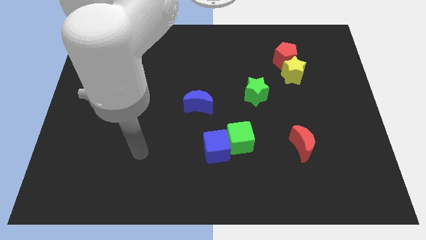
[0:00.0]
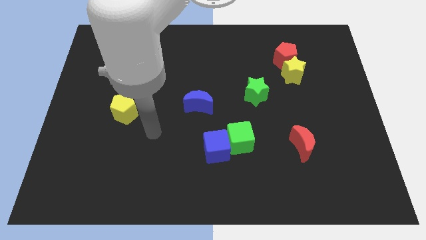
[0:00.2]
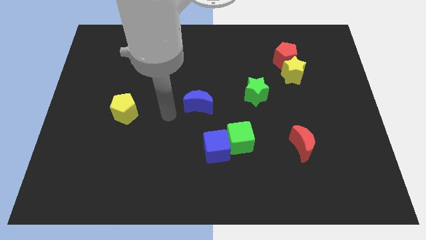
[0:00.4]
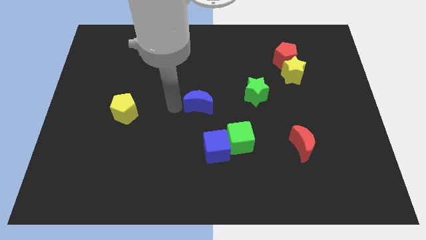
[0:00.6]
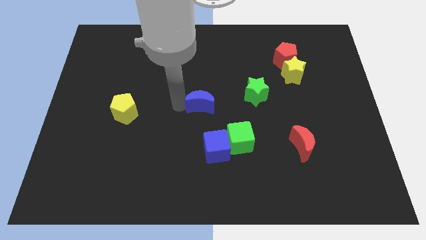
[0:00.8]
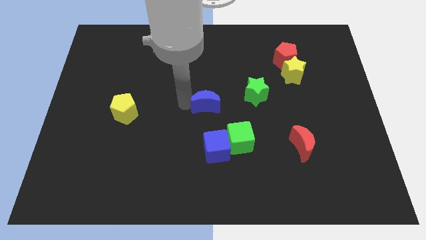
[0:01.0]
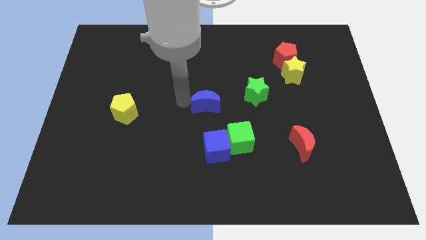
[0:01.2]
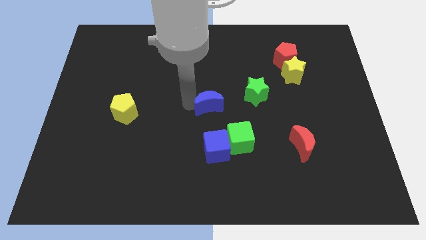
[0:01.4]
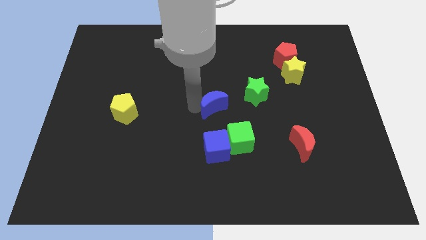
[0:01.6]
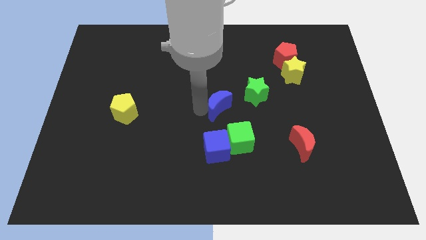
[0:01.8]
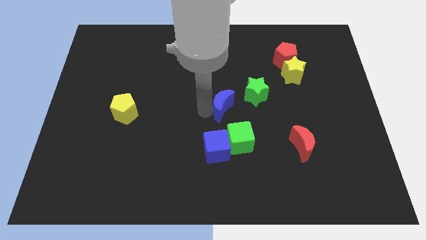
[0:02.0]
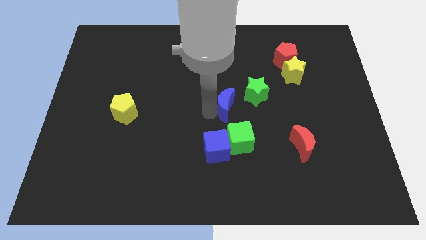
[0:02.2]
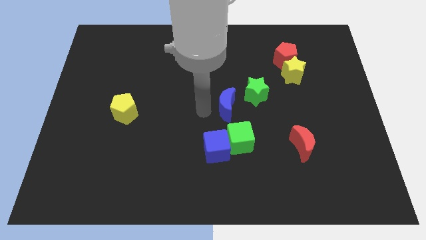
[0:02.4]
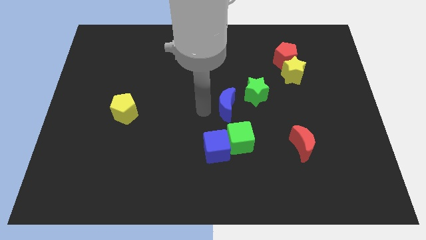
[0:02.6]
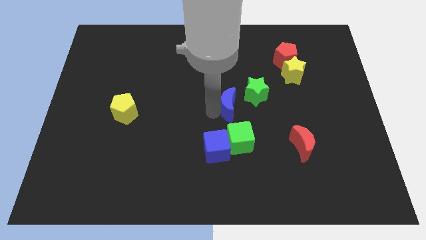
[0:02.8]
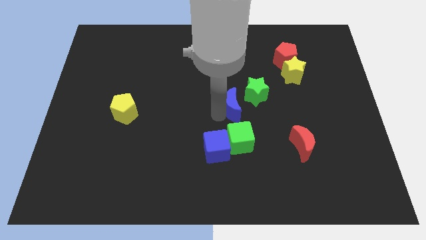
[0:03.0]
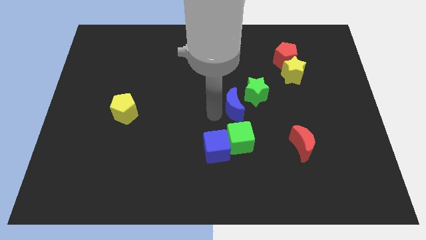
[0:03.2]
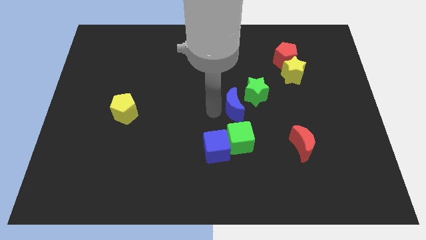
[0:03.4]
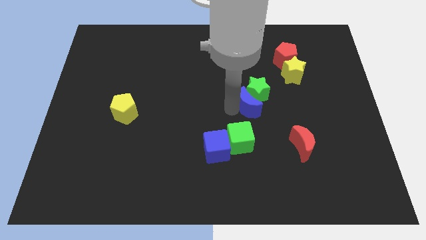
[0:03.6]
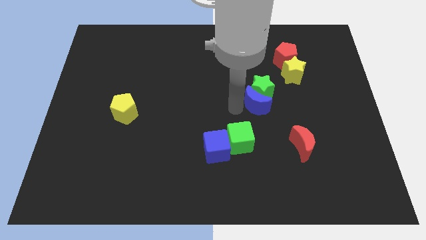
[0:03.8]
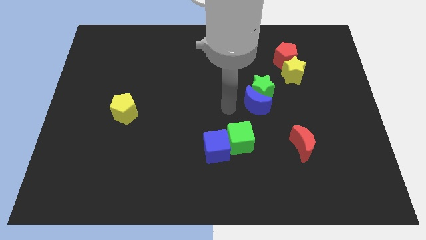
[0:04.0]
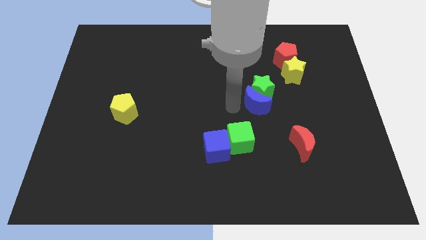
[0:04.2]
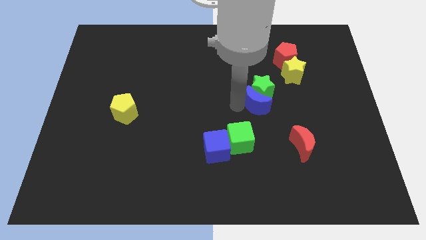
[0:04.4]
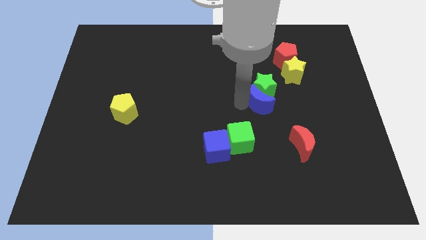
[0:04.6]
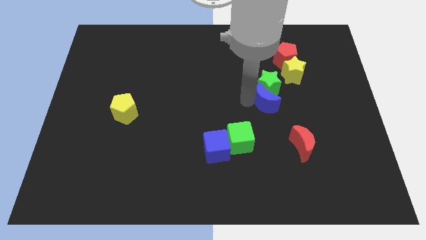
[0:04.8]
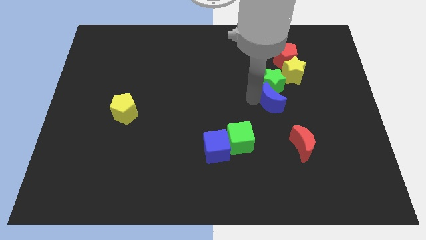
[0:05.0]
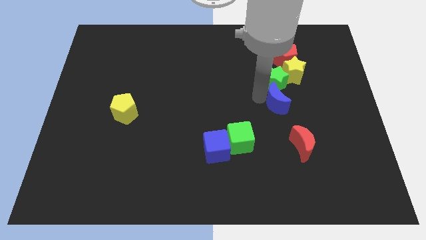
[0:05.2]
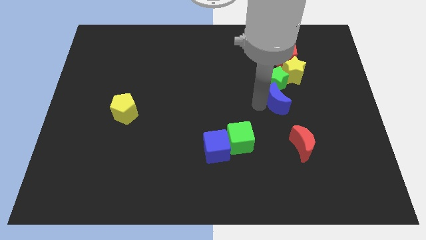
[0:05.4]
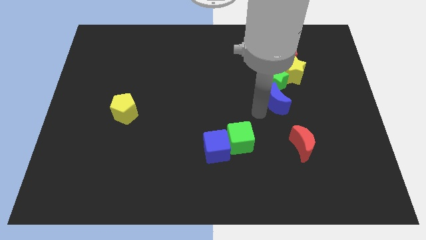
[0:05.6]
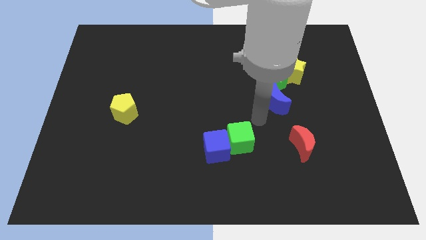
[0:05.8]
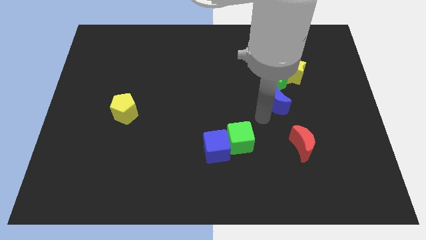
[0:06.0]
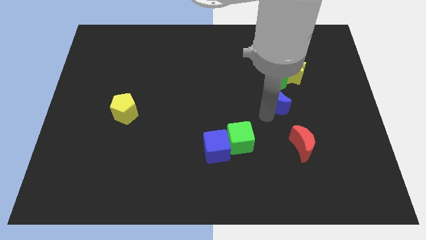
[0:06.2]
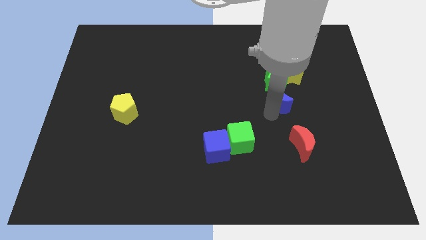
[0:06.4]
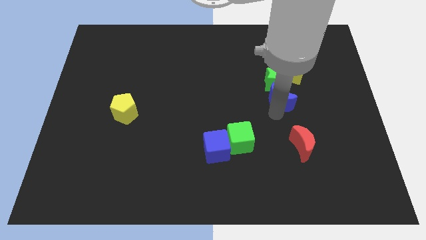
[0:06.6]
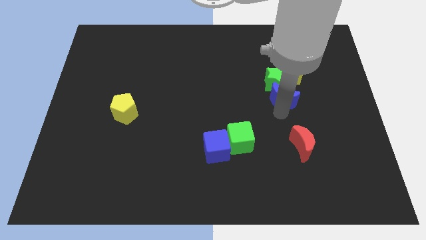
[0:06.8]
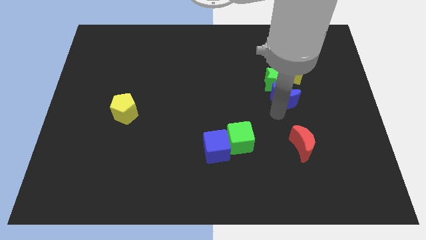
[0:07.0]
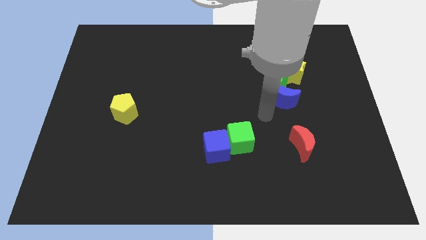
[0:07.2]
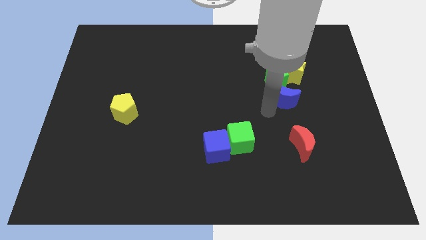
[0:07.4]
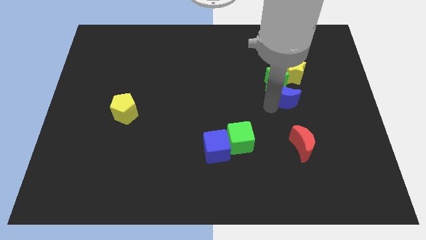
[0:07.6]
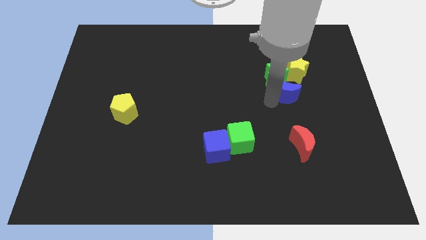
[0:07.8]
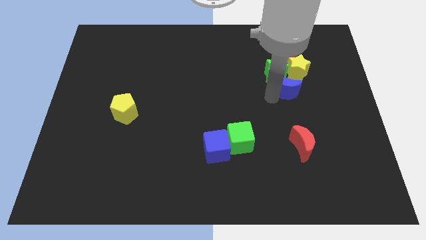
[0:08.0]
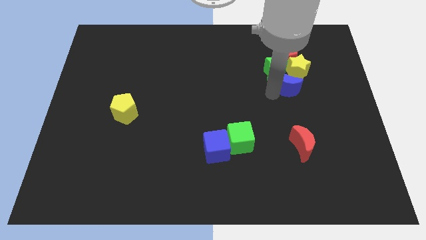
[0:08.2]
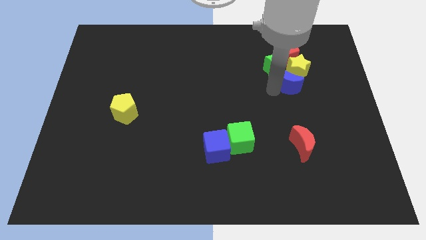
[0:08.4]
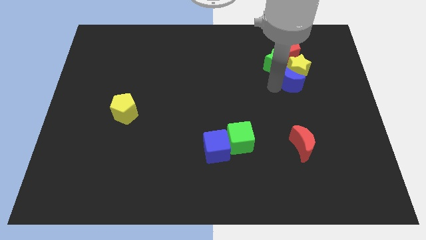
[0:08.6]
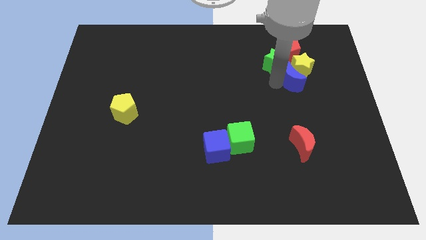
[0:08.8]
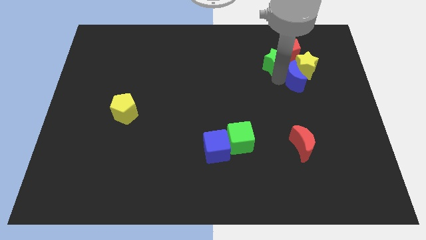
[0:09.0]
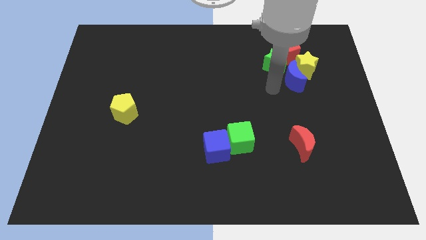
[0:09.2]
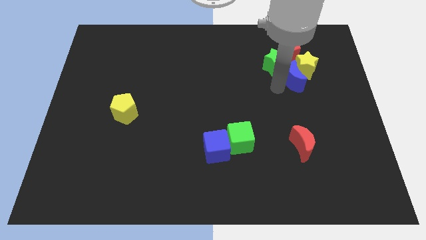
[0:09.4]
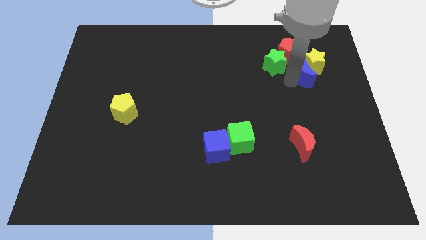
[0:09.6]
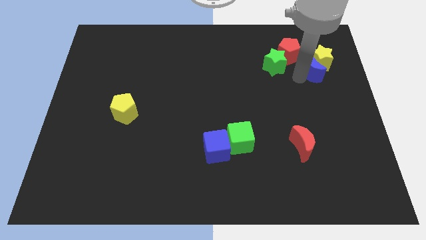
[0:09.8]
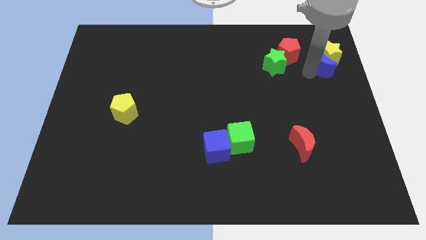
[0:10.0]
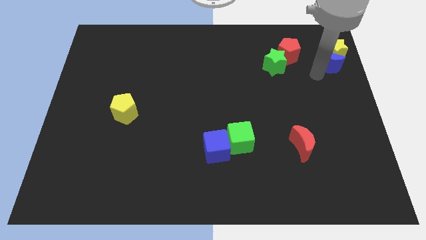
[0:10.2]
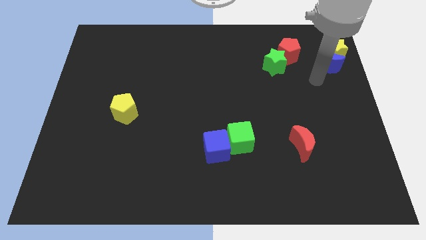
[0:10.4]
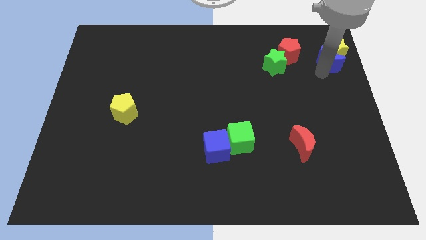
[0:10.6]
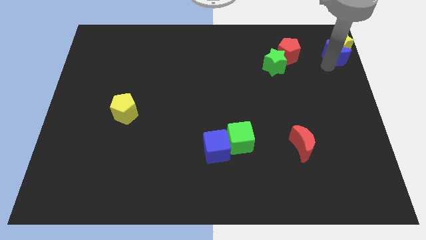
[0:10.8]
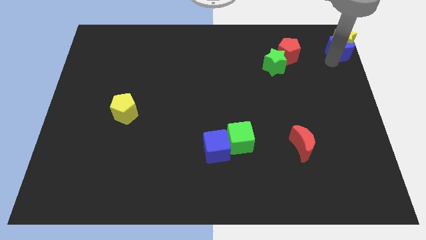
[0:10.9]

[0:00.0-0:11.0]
slide the blue moon to the upper right corner
